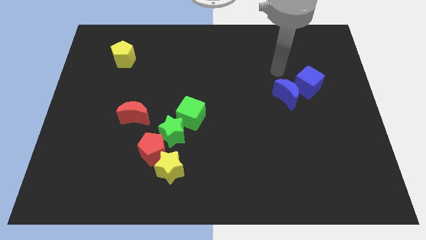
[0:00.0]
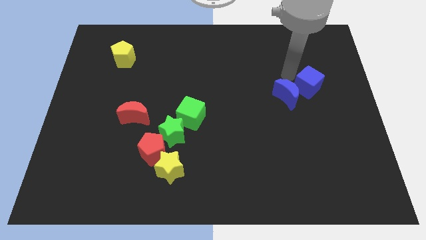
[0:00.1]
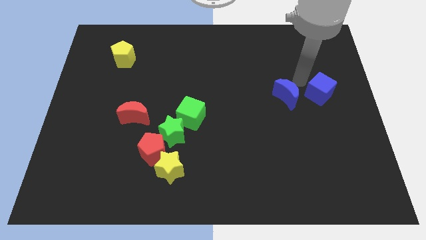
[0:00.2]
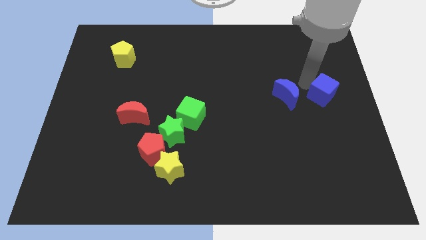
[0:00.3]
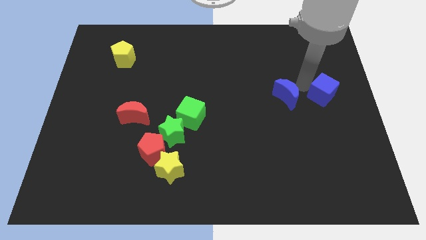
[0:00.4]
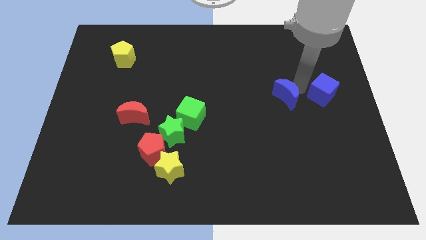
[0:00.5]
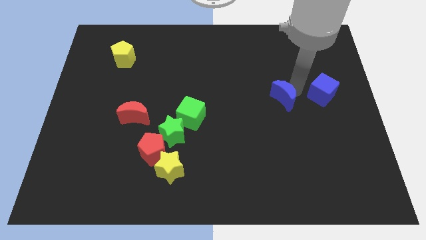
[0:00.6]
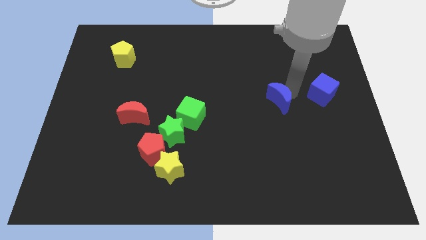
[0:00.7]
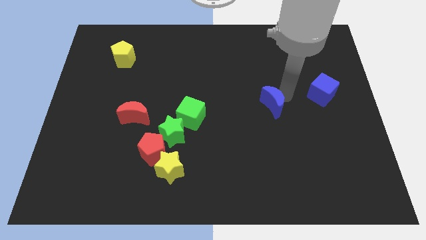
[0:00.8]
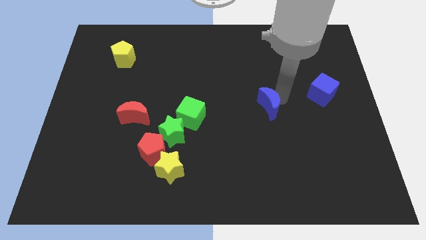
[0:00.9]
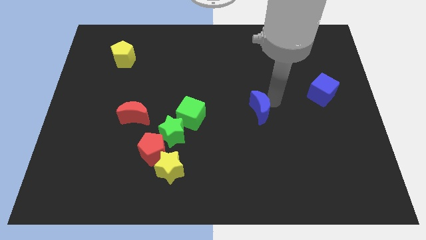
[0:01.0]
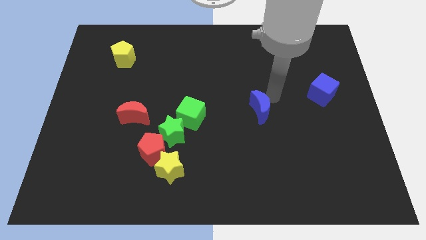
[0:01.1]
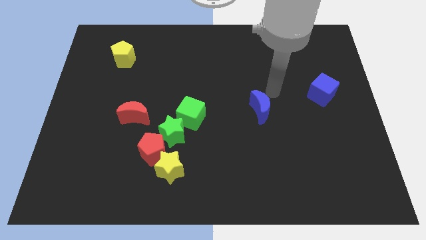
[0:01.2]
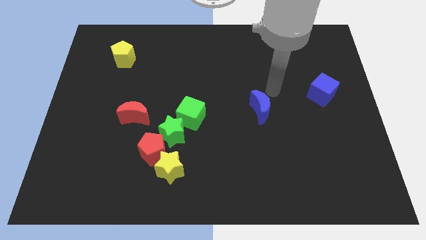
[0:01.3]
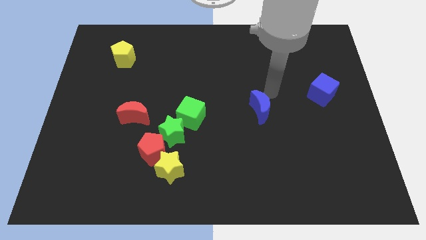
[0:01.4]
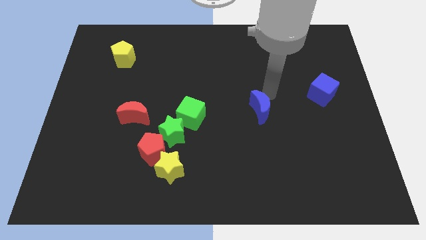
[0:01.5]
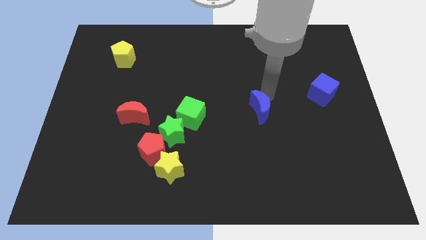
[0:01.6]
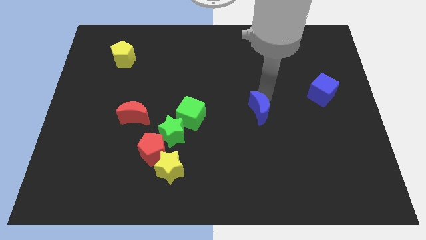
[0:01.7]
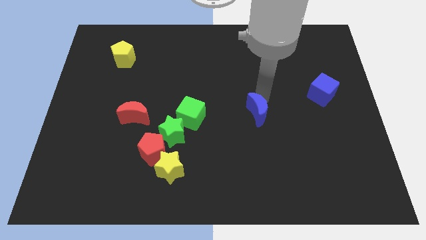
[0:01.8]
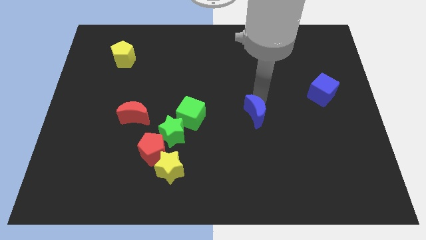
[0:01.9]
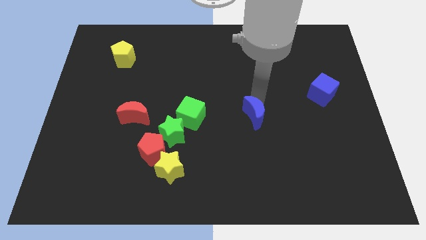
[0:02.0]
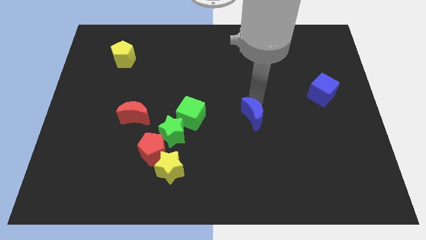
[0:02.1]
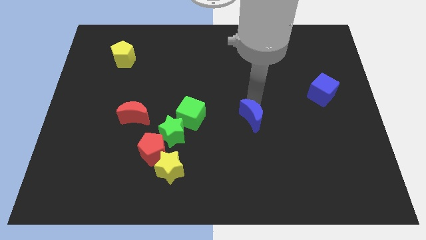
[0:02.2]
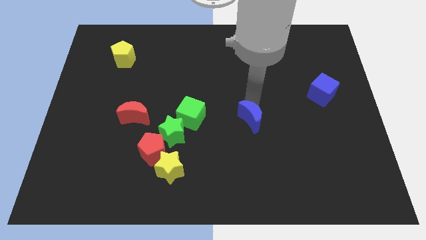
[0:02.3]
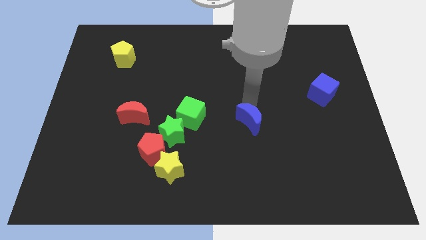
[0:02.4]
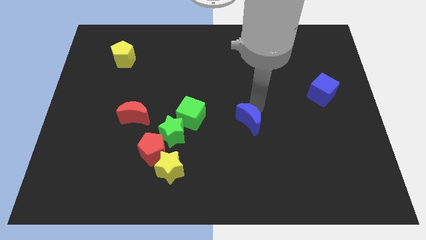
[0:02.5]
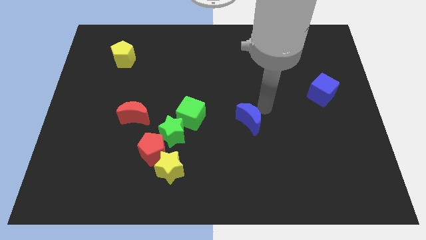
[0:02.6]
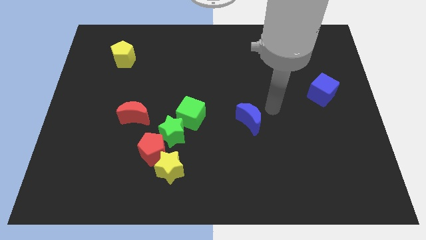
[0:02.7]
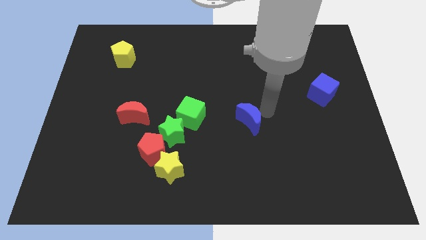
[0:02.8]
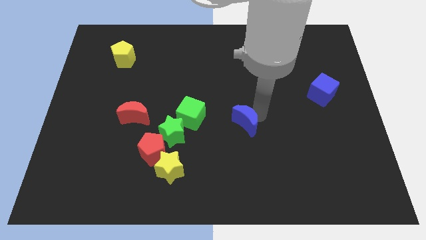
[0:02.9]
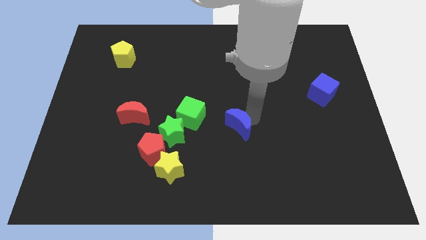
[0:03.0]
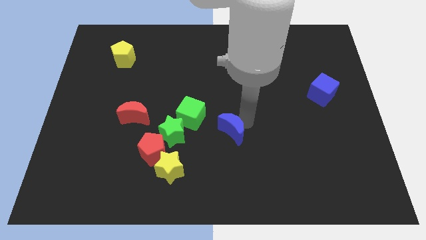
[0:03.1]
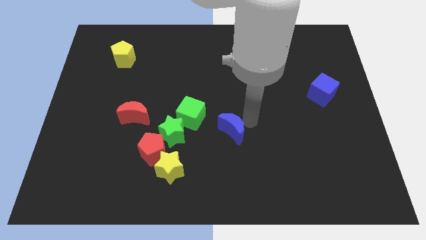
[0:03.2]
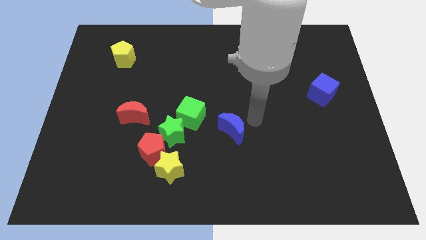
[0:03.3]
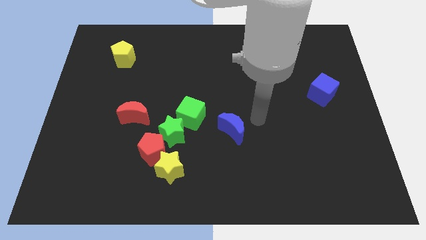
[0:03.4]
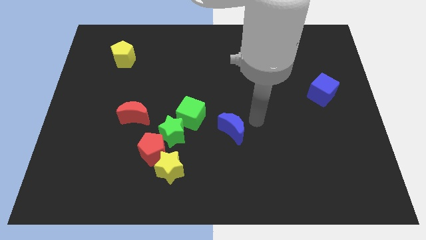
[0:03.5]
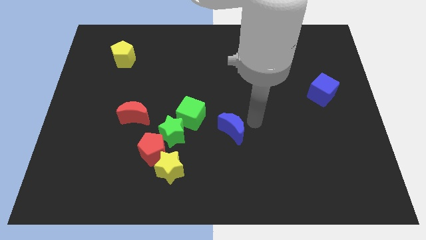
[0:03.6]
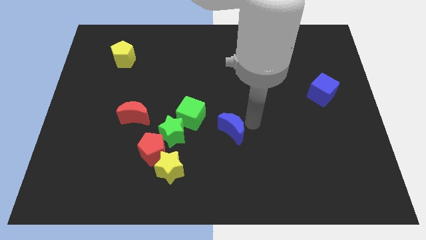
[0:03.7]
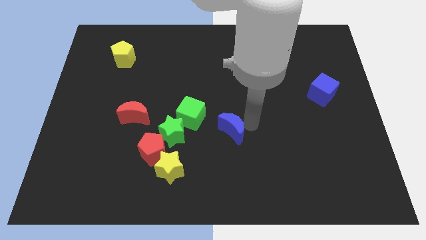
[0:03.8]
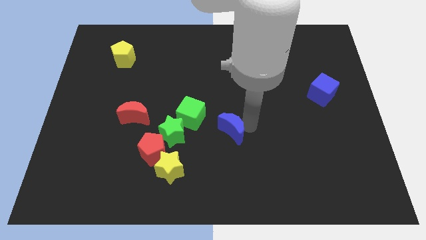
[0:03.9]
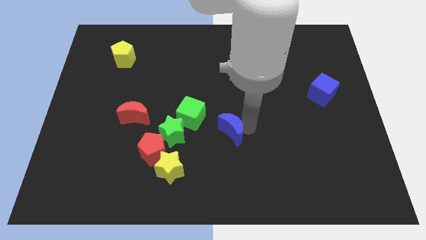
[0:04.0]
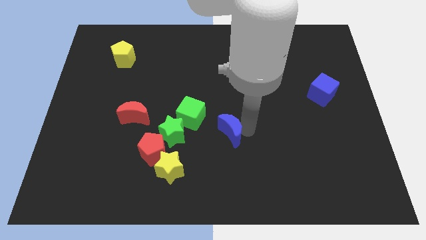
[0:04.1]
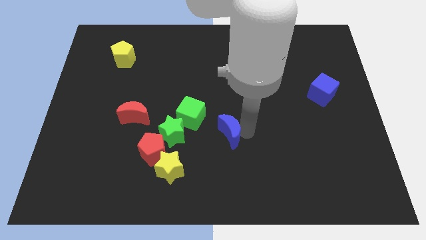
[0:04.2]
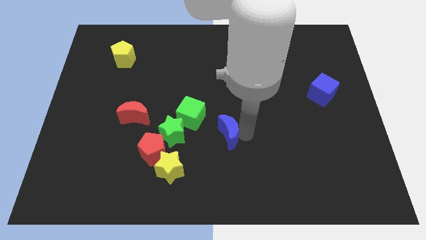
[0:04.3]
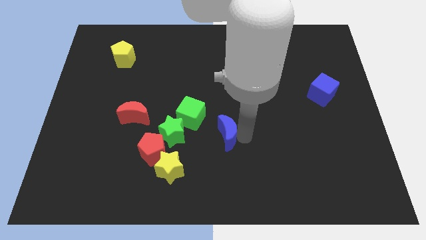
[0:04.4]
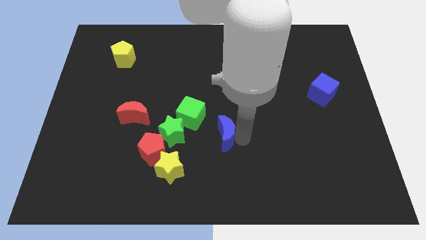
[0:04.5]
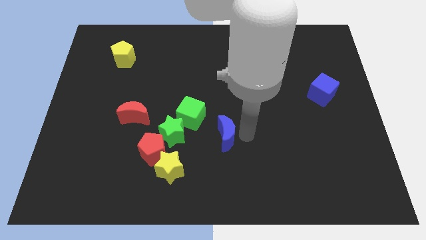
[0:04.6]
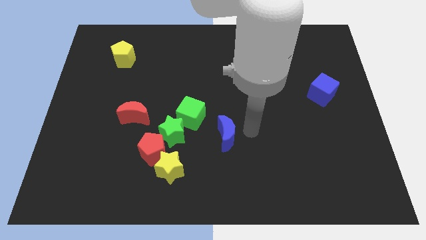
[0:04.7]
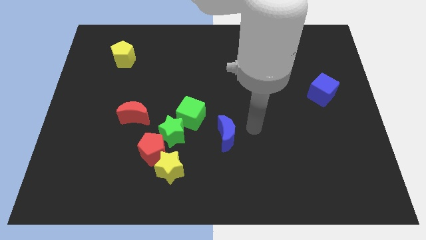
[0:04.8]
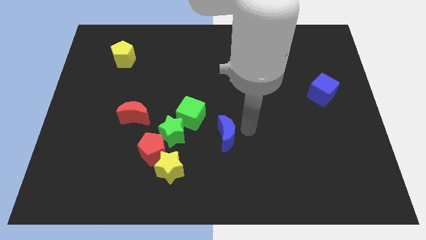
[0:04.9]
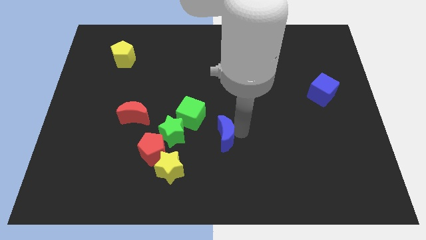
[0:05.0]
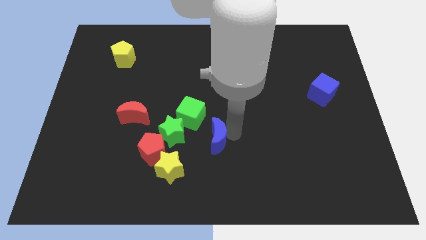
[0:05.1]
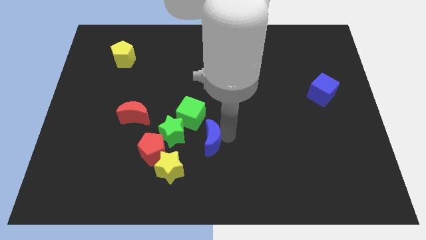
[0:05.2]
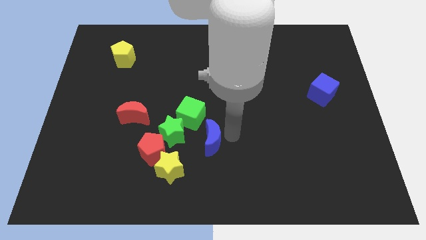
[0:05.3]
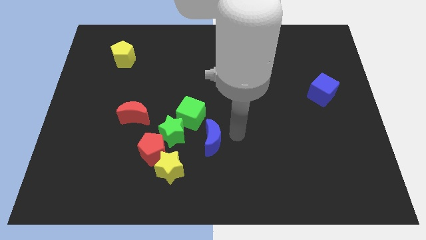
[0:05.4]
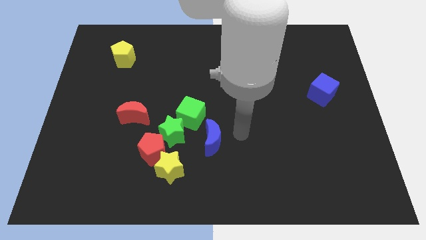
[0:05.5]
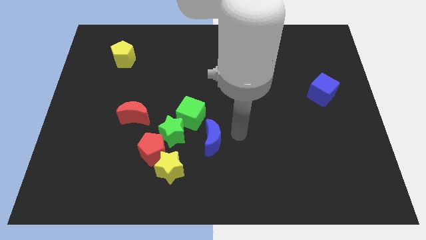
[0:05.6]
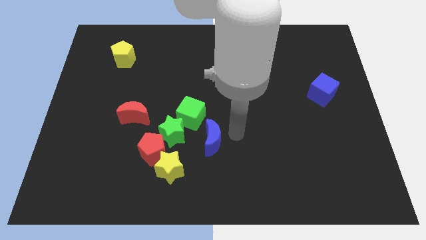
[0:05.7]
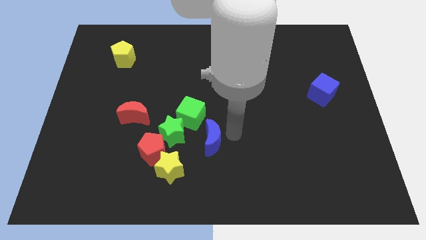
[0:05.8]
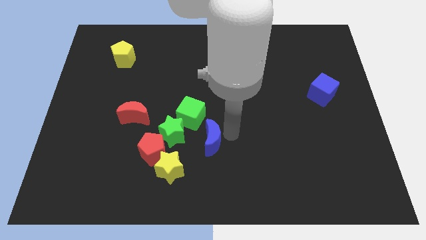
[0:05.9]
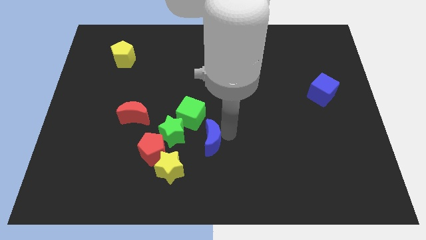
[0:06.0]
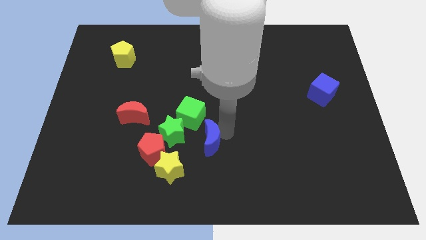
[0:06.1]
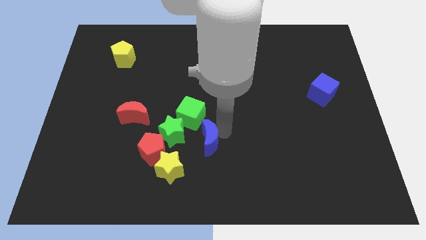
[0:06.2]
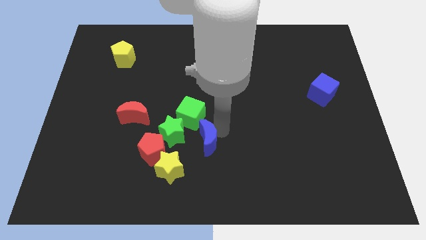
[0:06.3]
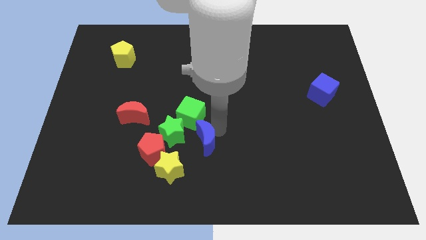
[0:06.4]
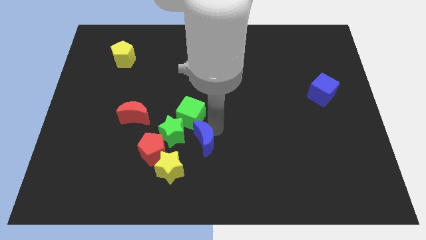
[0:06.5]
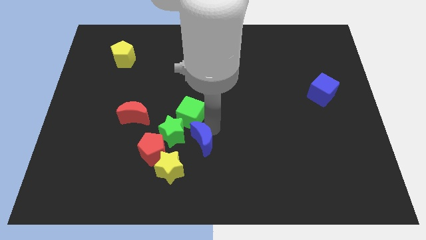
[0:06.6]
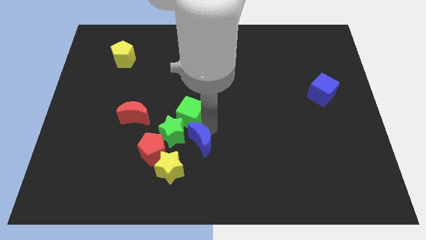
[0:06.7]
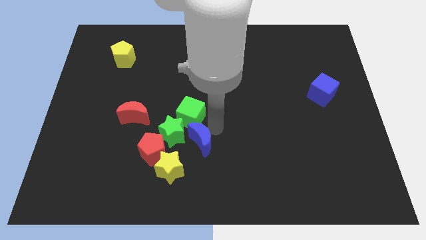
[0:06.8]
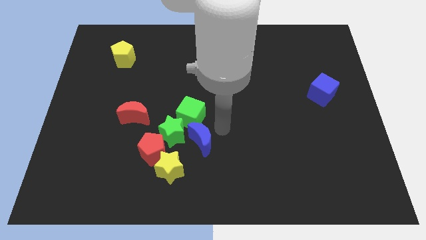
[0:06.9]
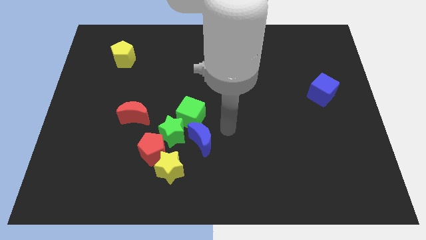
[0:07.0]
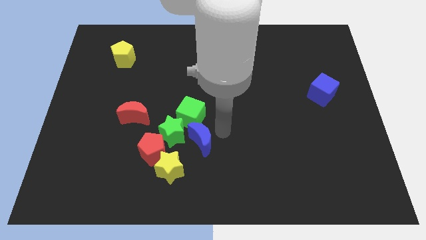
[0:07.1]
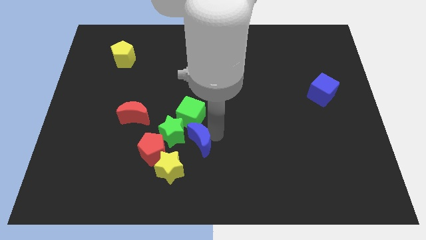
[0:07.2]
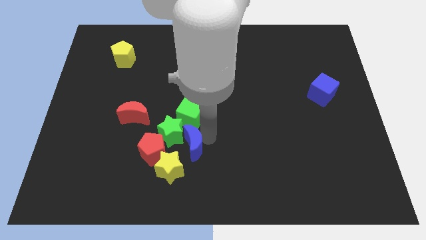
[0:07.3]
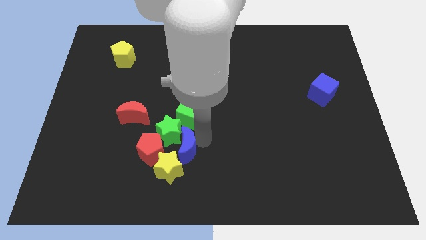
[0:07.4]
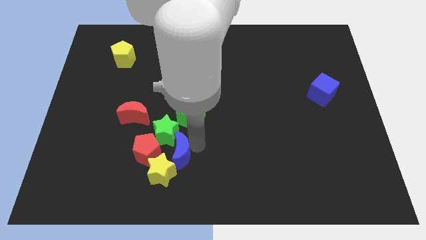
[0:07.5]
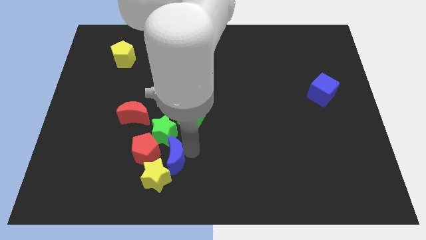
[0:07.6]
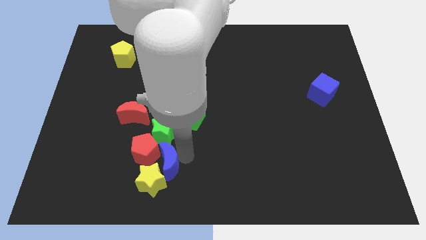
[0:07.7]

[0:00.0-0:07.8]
push the blue moon to the red pentagon
